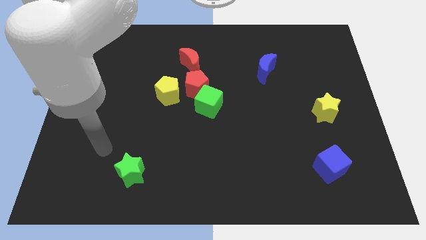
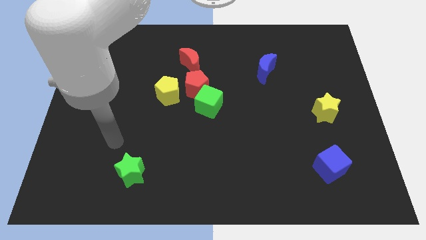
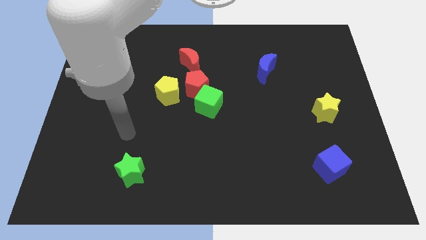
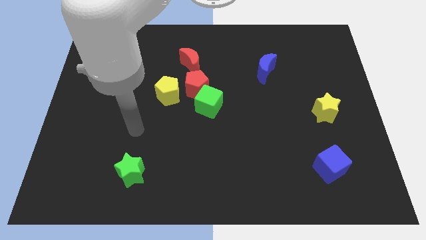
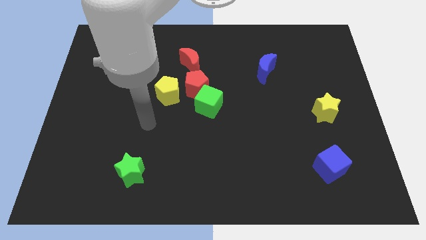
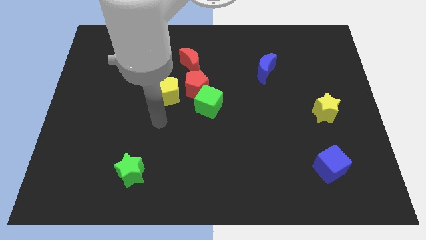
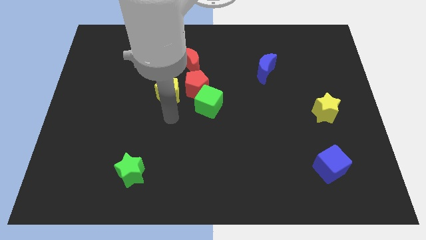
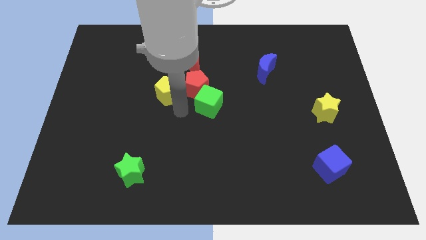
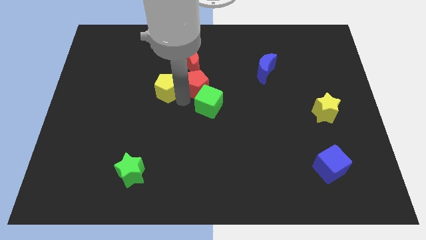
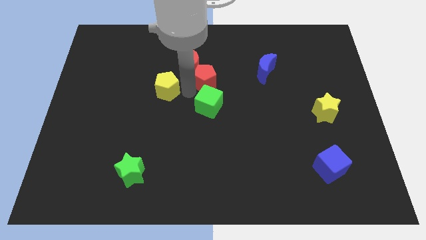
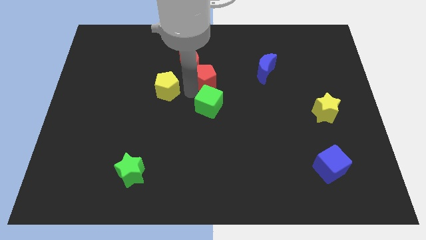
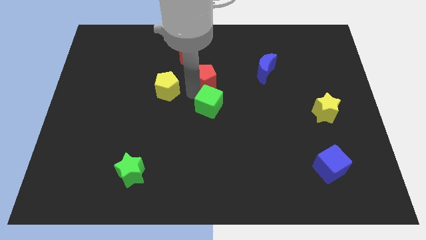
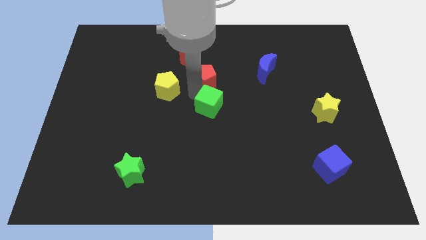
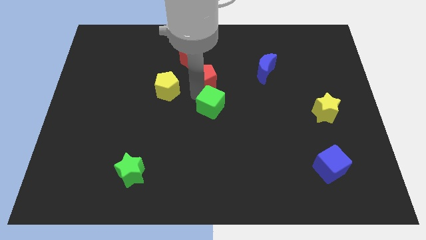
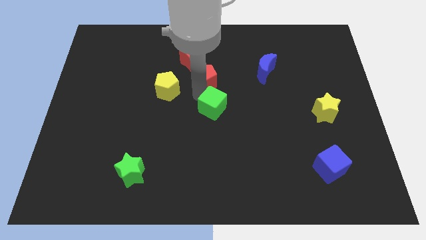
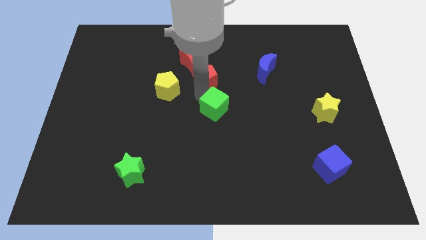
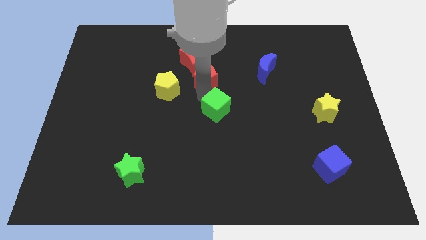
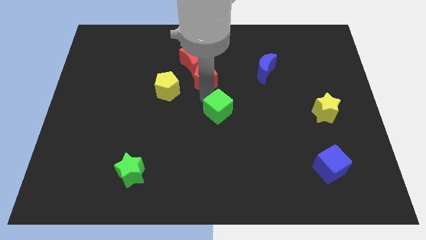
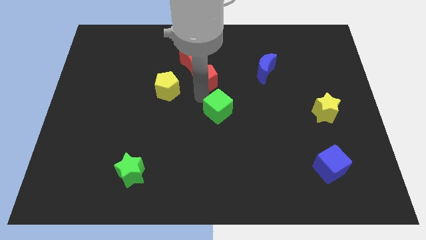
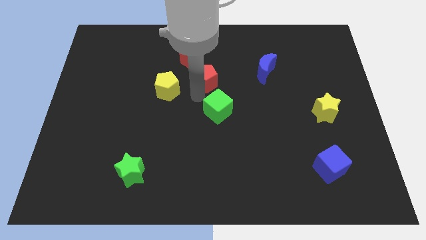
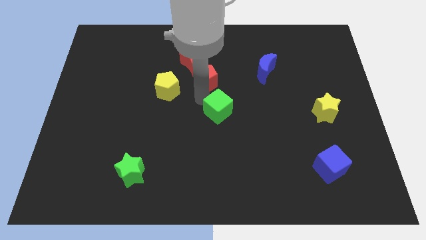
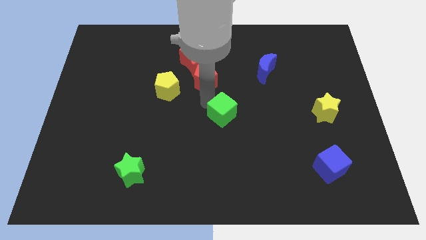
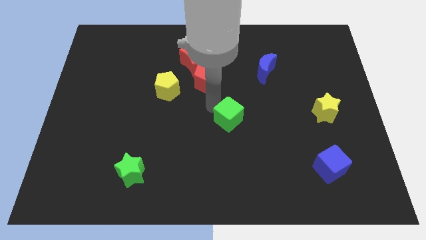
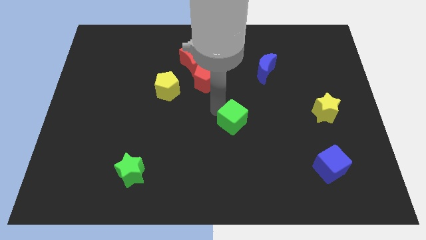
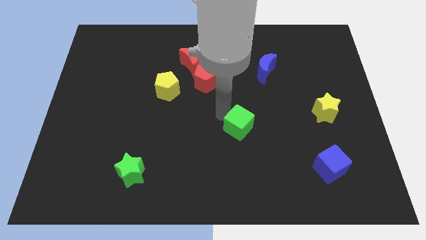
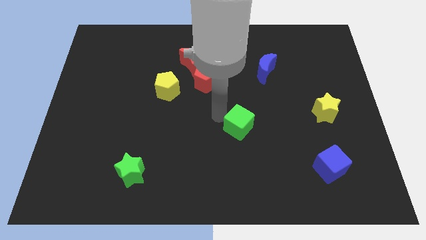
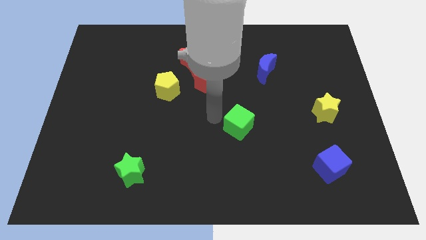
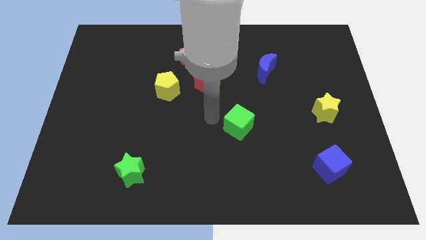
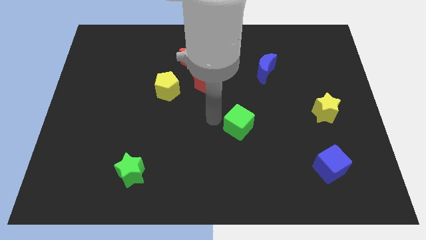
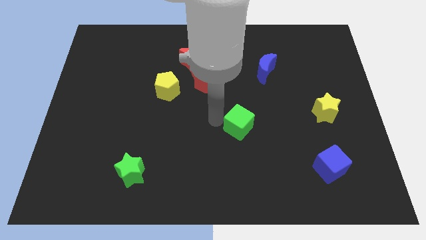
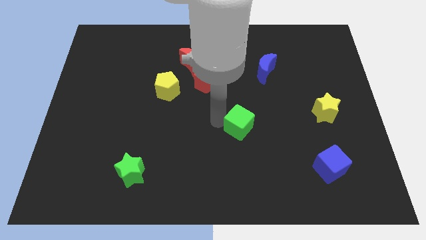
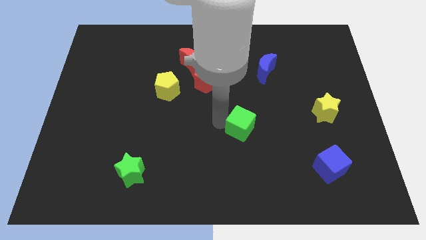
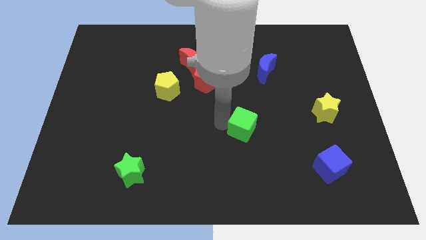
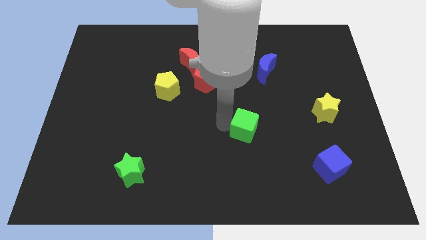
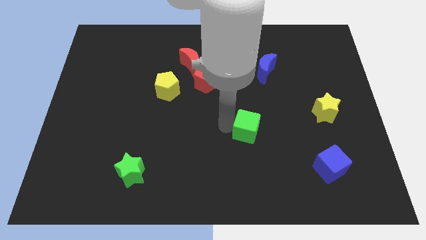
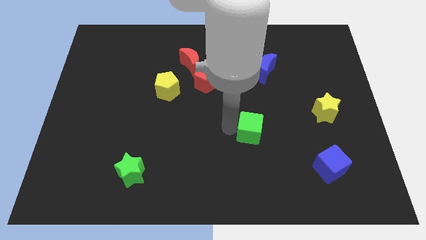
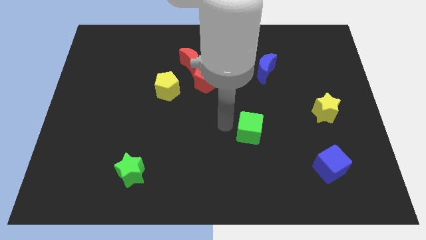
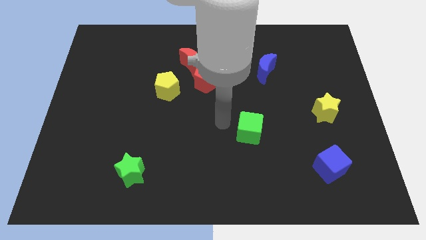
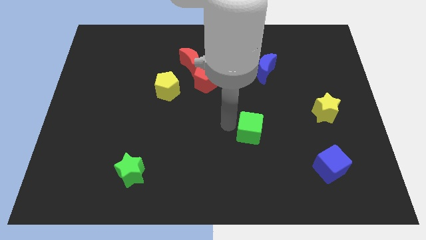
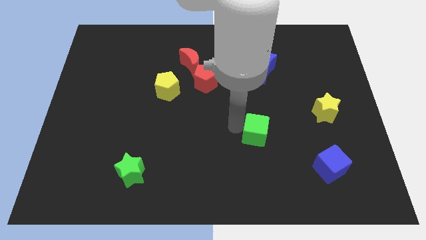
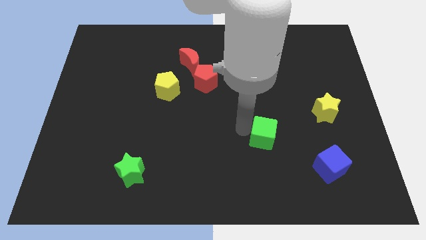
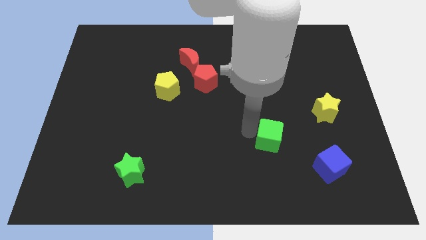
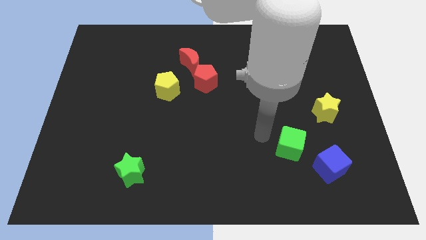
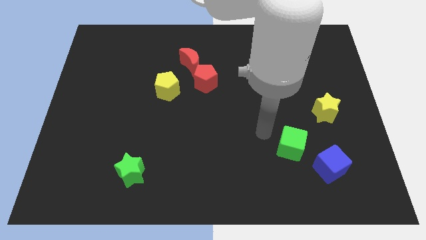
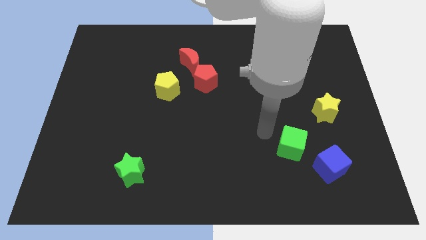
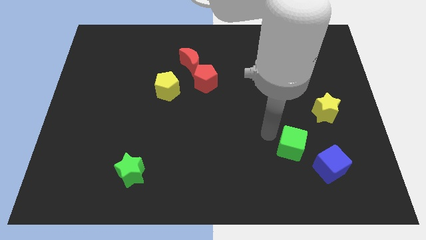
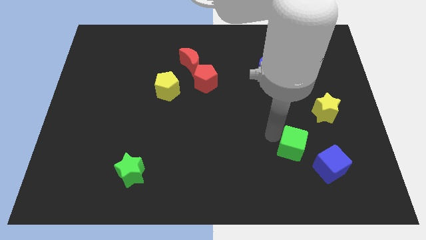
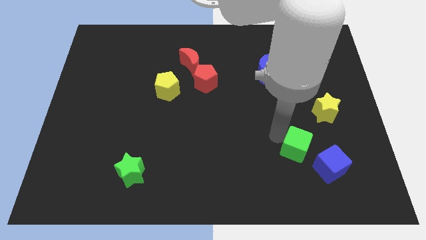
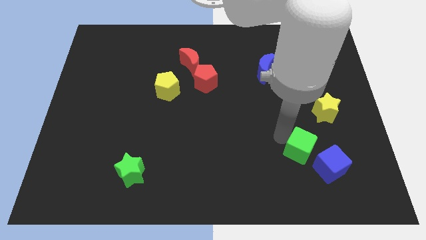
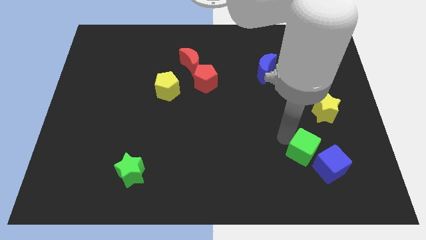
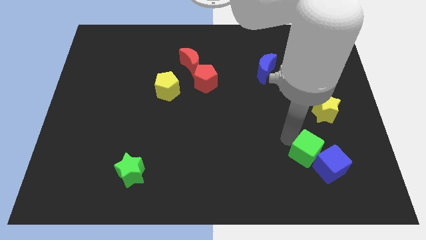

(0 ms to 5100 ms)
put the green cube to the blue cube

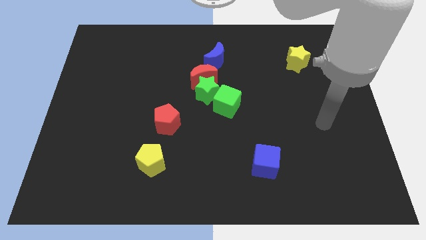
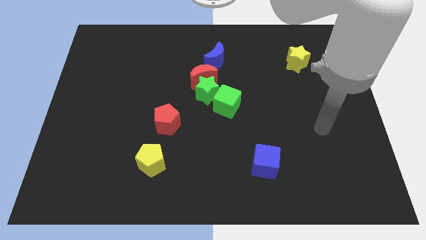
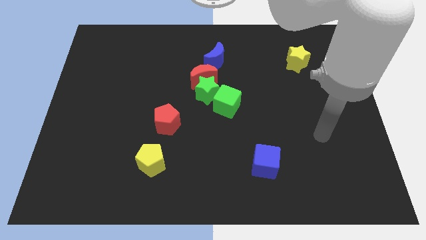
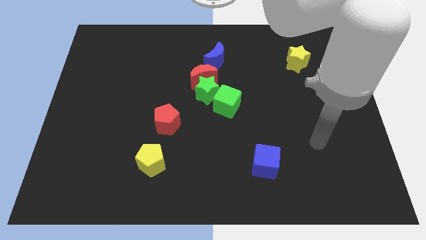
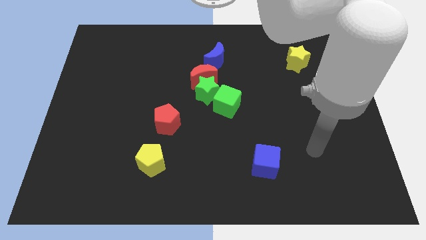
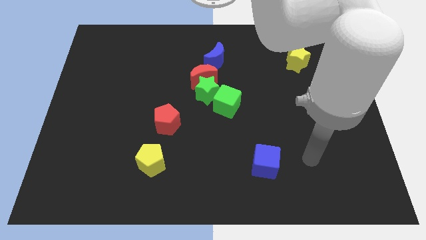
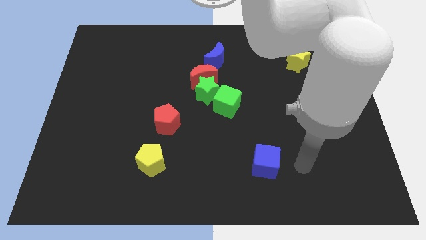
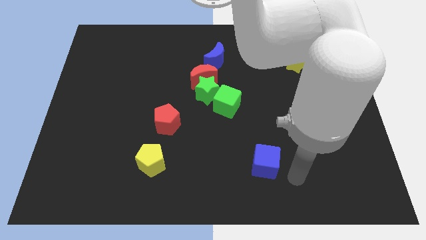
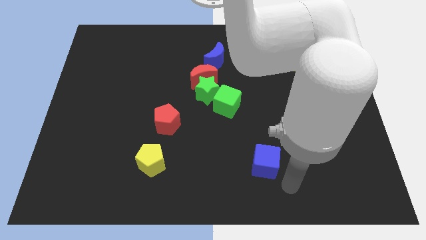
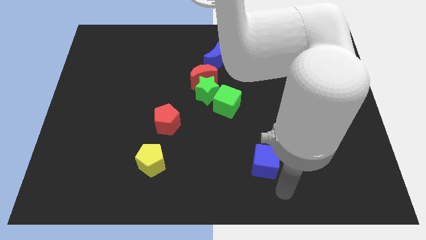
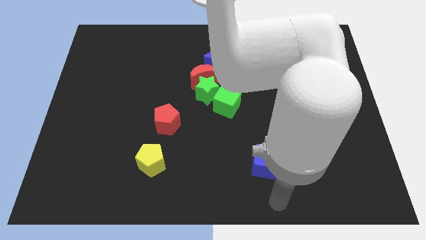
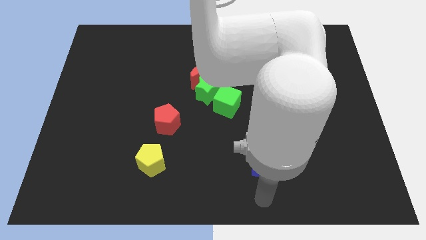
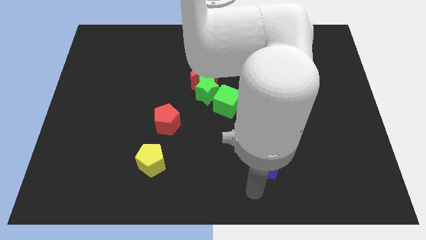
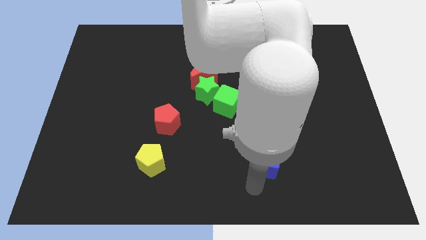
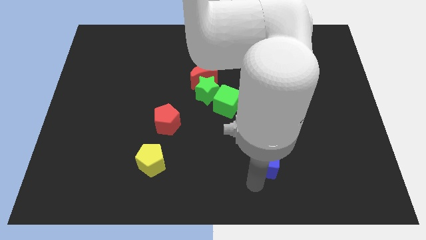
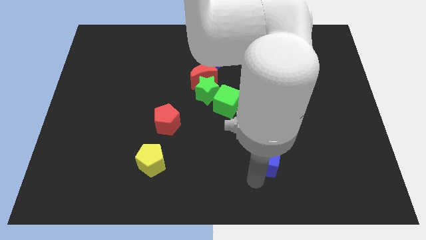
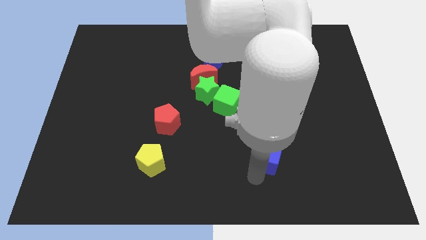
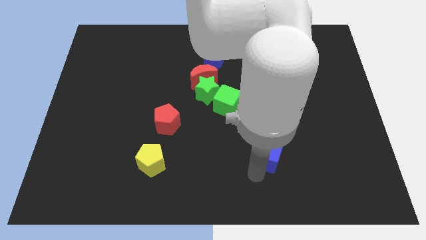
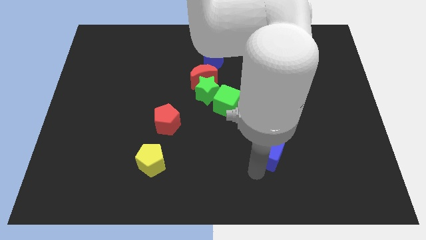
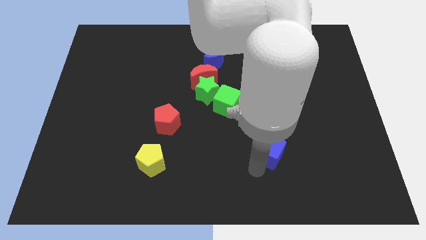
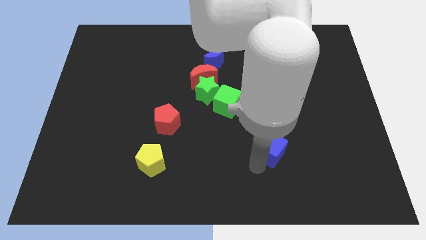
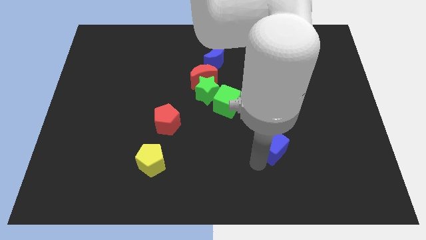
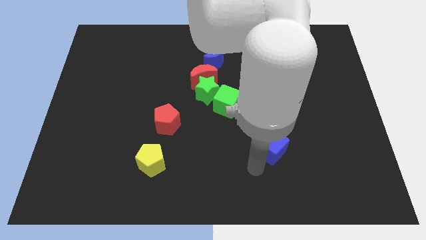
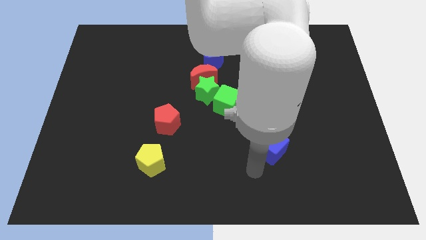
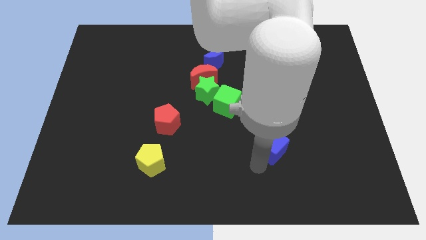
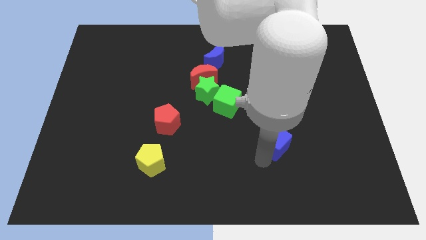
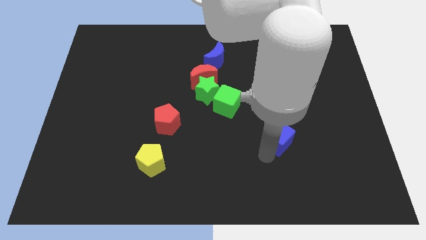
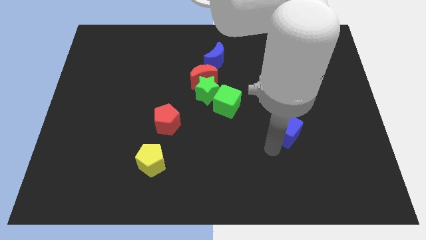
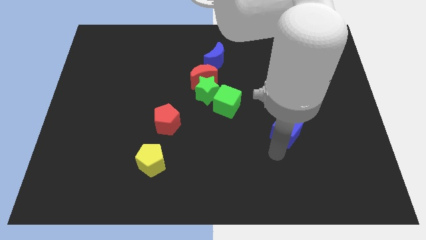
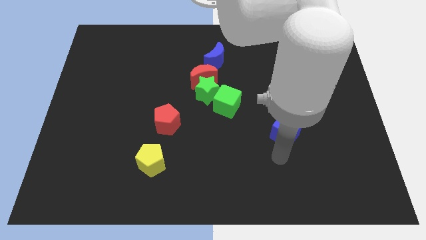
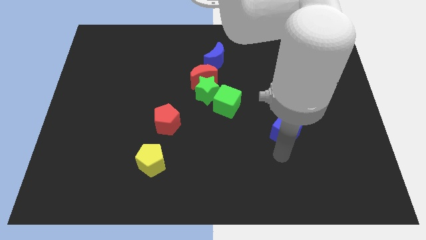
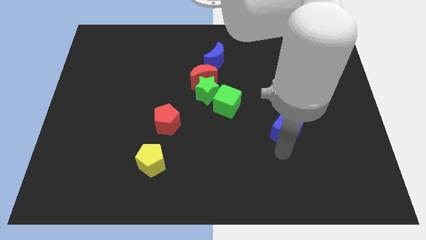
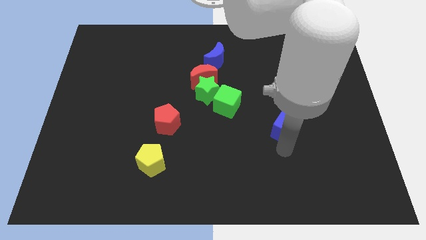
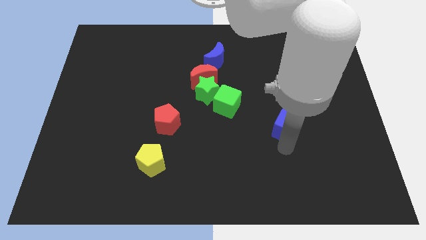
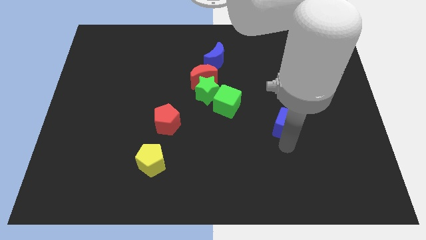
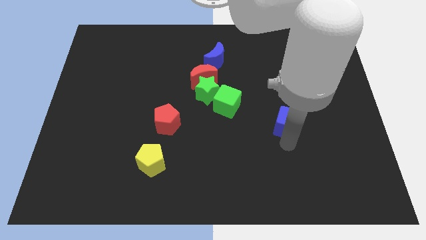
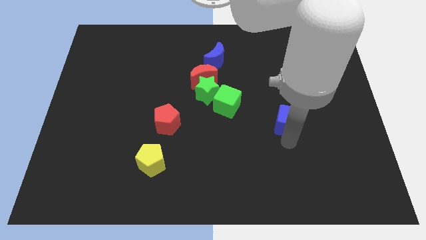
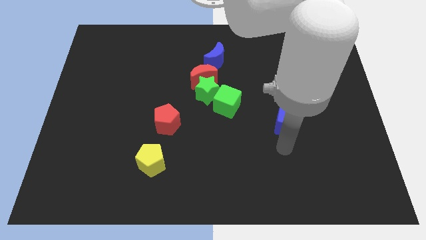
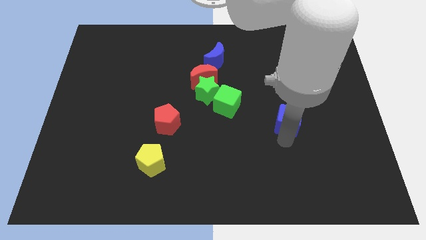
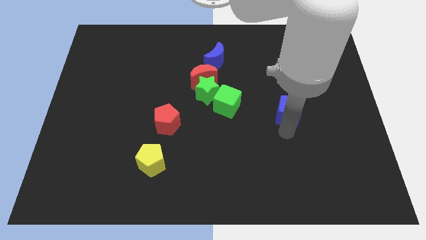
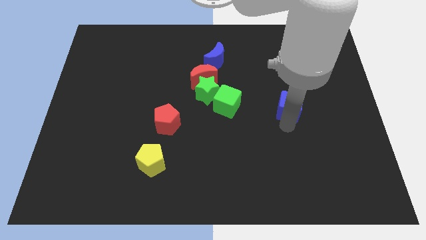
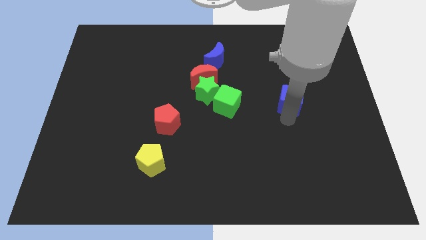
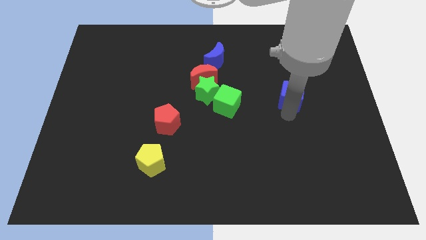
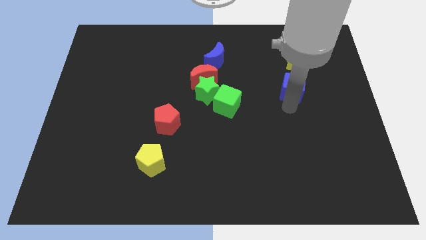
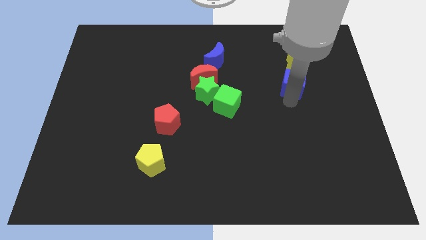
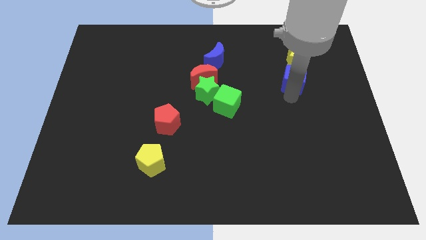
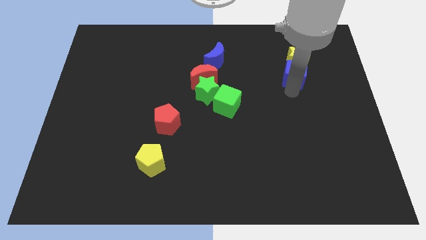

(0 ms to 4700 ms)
push the blue cube close to the yellow star
